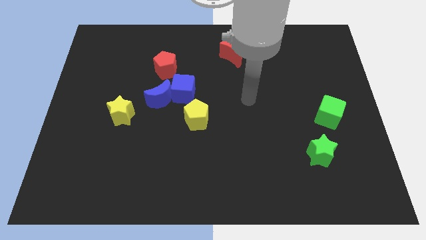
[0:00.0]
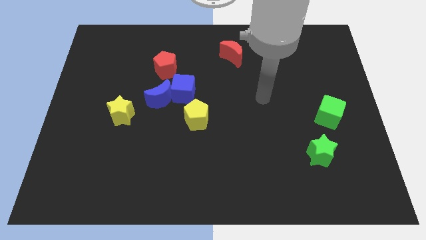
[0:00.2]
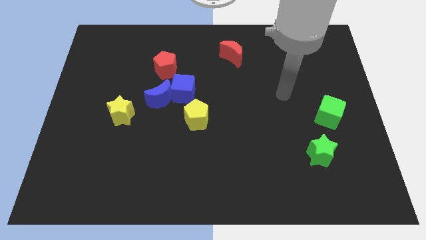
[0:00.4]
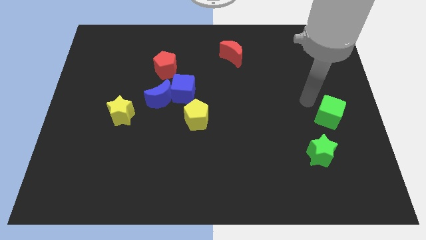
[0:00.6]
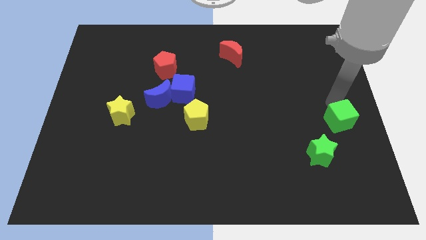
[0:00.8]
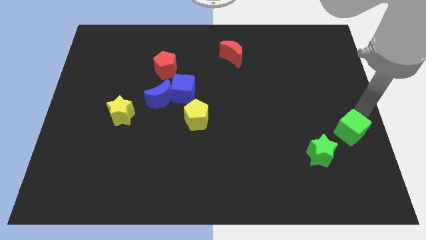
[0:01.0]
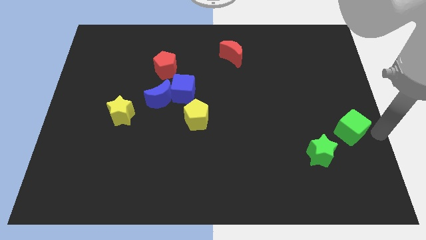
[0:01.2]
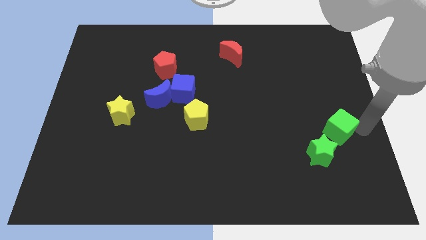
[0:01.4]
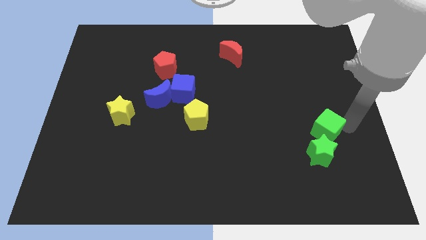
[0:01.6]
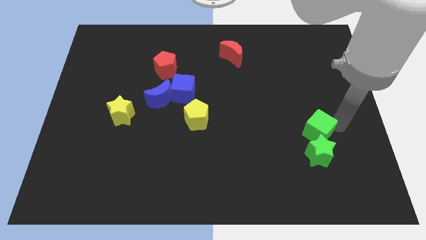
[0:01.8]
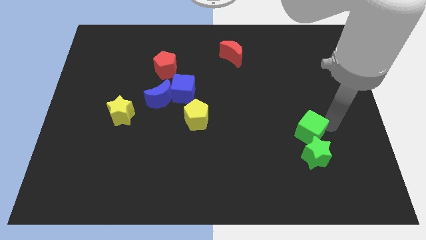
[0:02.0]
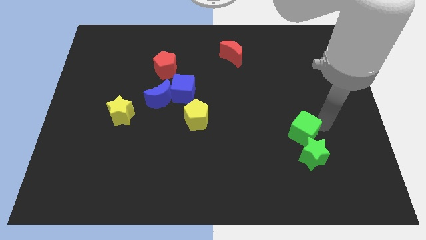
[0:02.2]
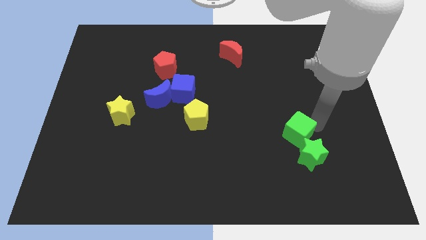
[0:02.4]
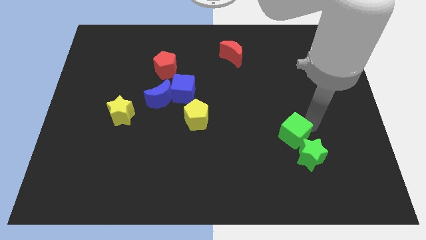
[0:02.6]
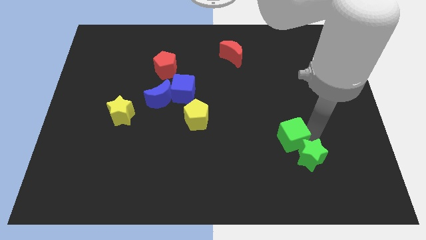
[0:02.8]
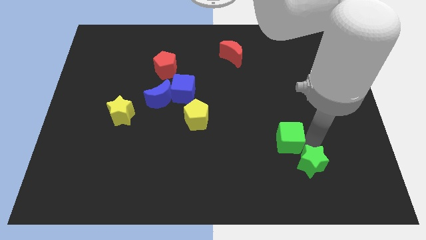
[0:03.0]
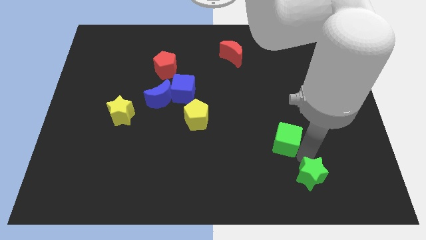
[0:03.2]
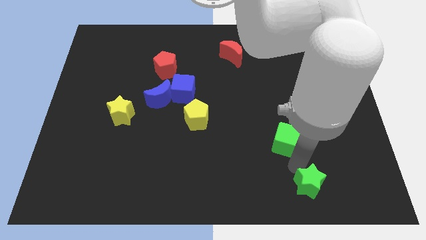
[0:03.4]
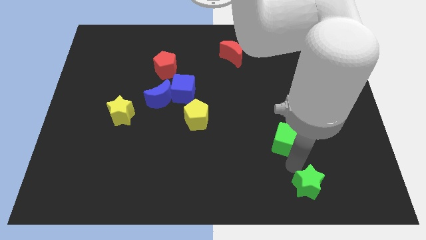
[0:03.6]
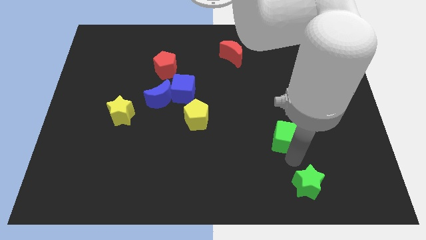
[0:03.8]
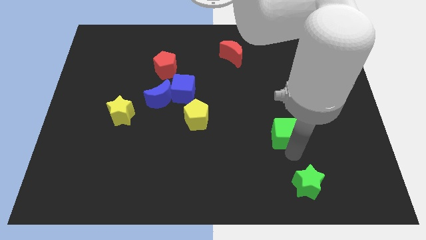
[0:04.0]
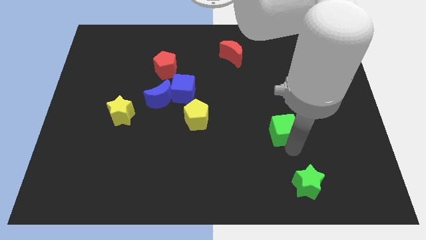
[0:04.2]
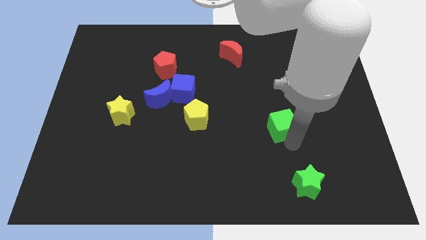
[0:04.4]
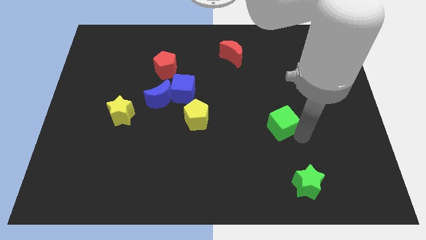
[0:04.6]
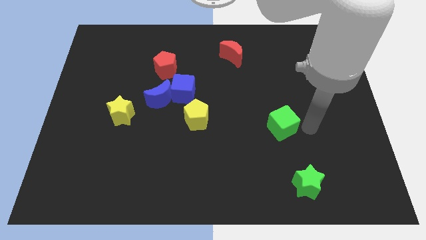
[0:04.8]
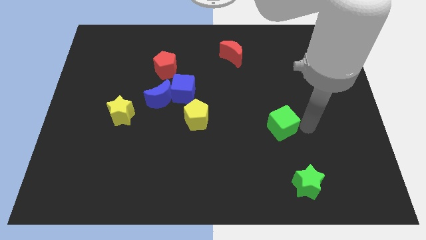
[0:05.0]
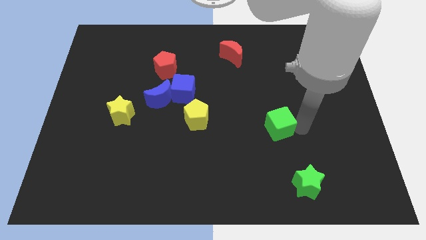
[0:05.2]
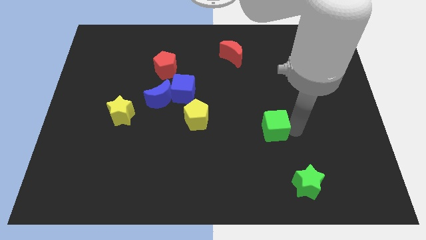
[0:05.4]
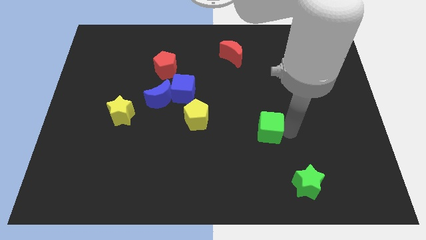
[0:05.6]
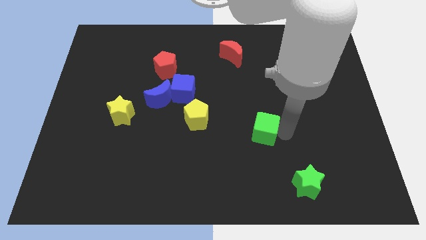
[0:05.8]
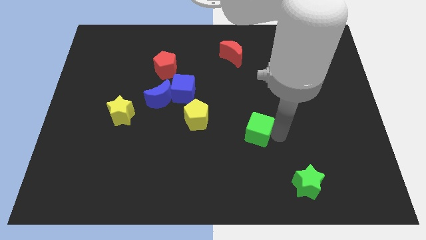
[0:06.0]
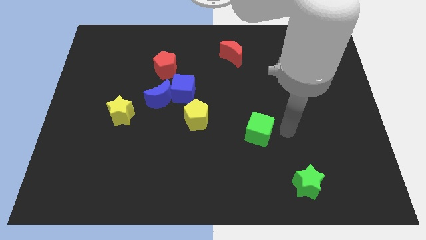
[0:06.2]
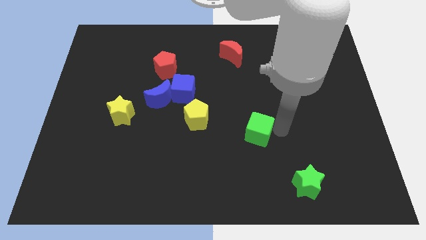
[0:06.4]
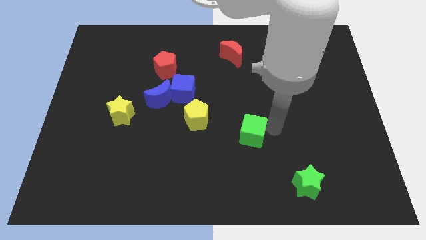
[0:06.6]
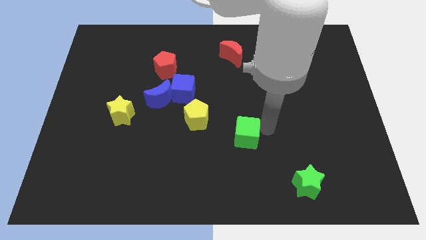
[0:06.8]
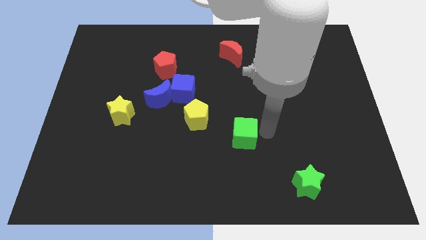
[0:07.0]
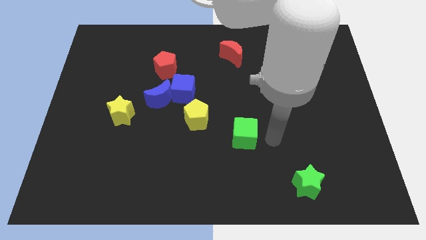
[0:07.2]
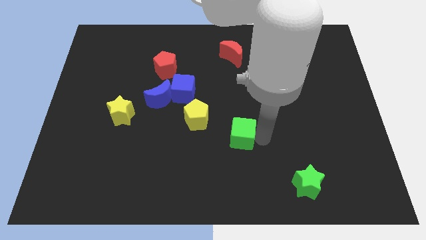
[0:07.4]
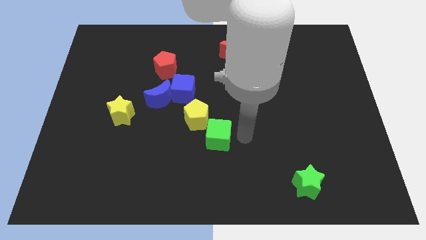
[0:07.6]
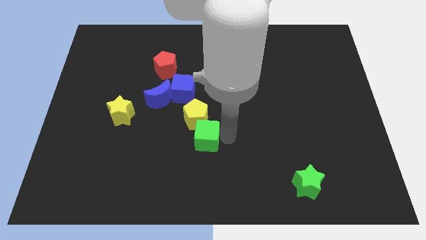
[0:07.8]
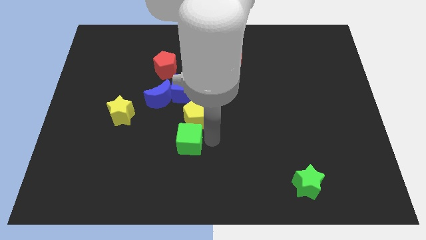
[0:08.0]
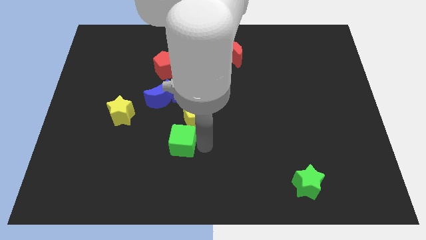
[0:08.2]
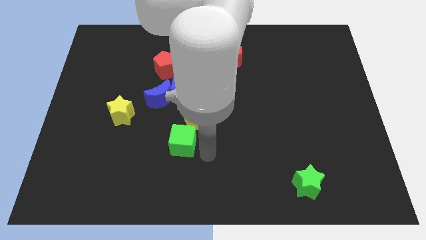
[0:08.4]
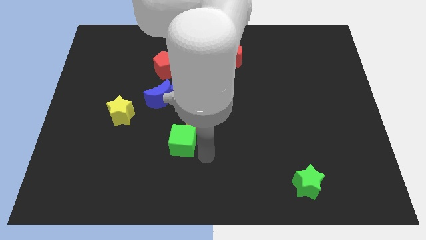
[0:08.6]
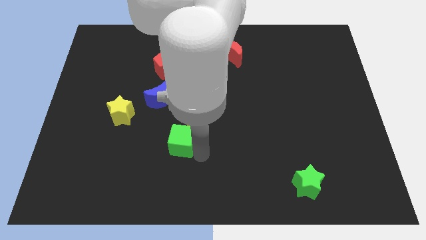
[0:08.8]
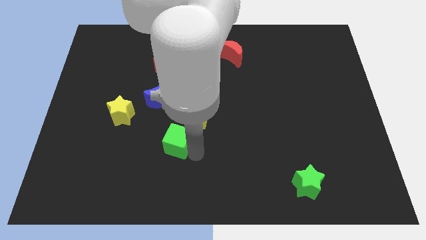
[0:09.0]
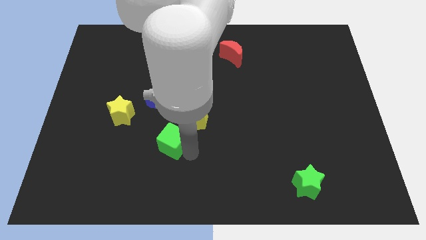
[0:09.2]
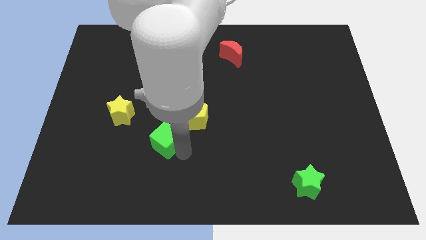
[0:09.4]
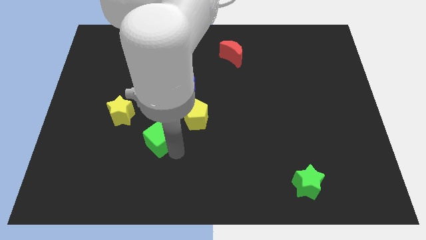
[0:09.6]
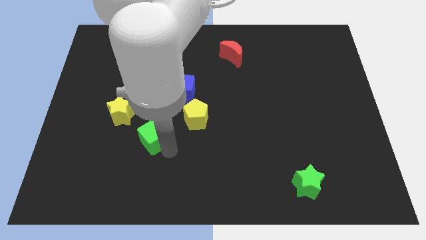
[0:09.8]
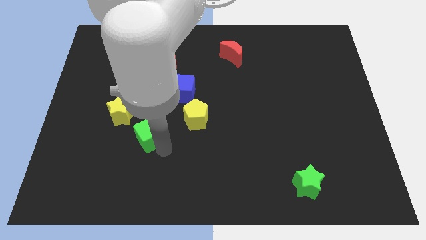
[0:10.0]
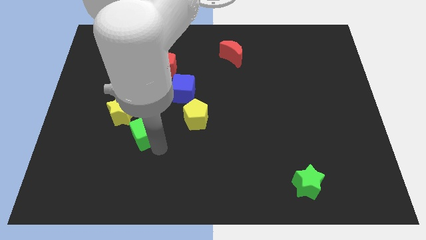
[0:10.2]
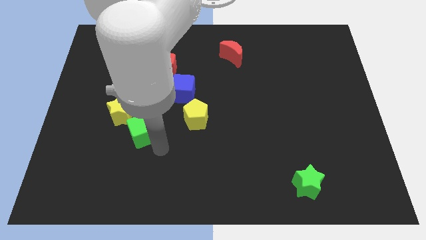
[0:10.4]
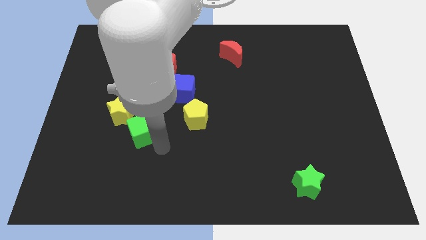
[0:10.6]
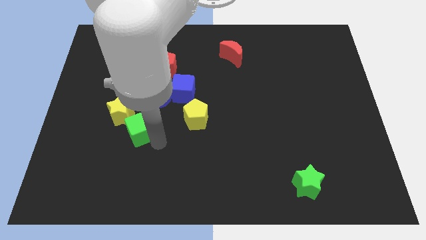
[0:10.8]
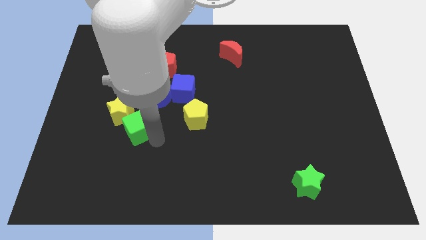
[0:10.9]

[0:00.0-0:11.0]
slide the green cube to the yellow star

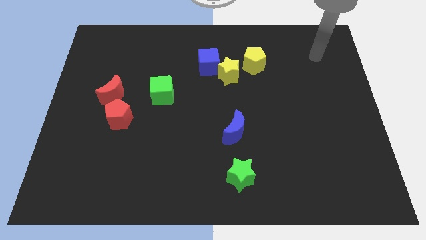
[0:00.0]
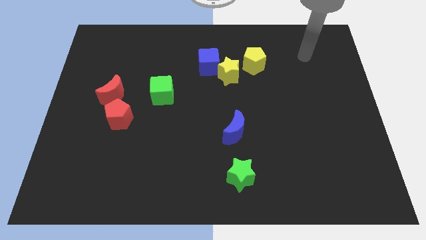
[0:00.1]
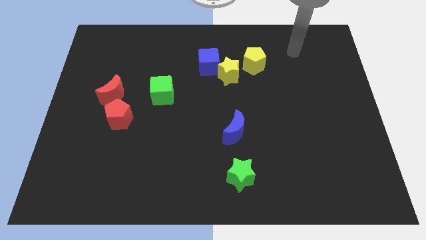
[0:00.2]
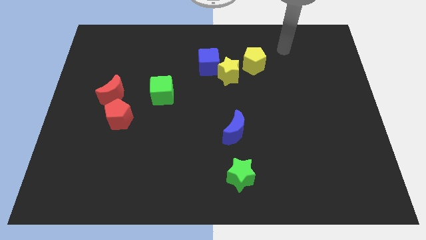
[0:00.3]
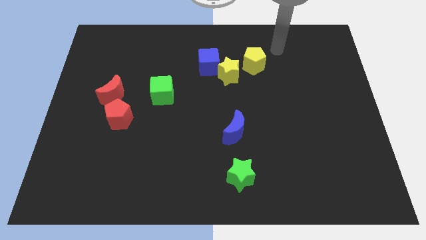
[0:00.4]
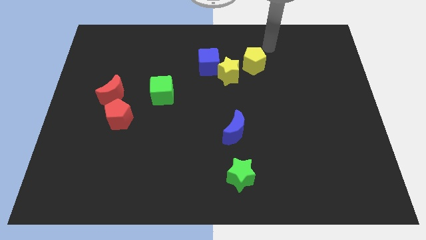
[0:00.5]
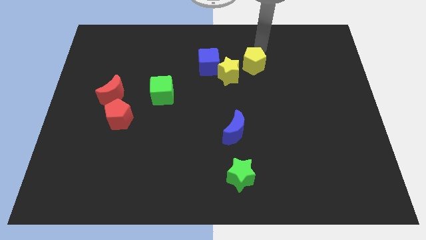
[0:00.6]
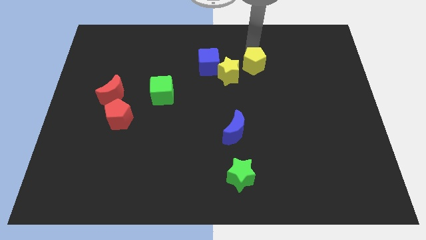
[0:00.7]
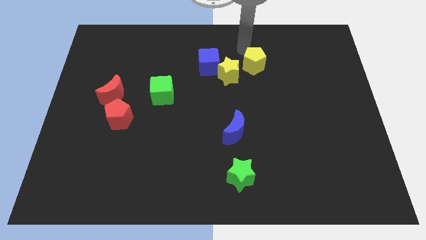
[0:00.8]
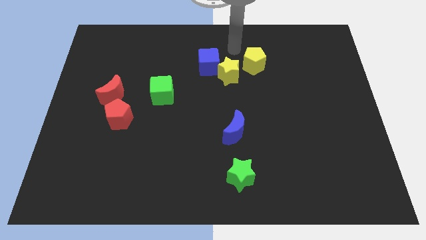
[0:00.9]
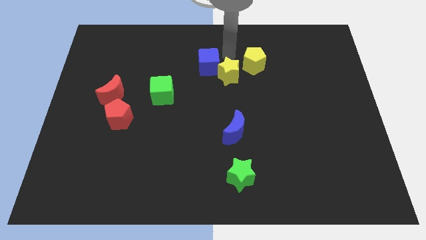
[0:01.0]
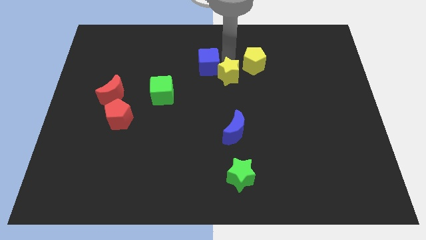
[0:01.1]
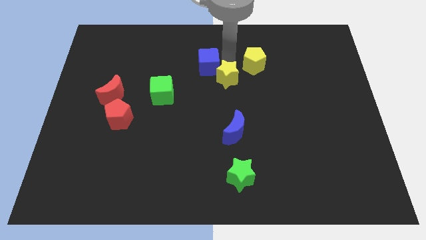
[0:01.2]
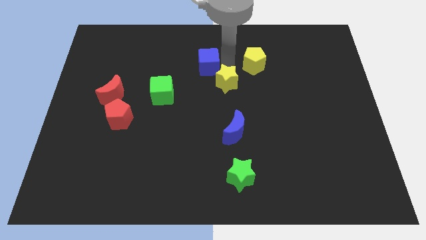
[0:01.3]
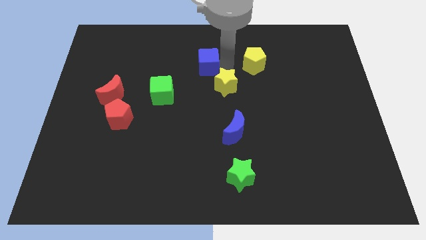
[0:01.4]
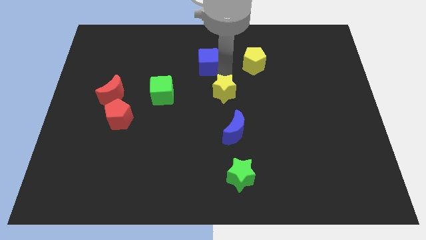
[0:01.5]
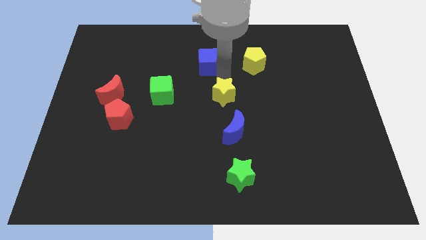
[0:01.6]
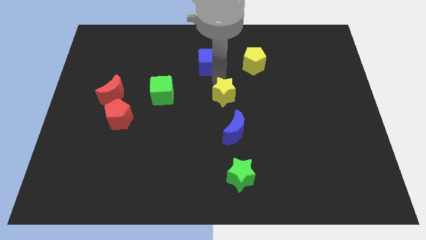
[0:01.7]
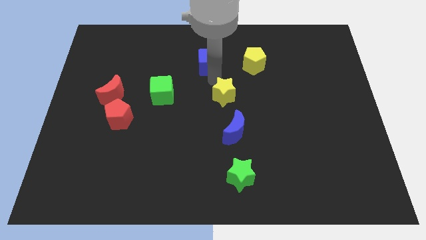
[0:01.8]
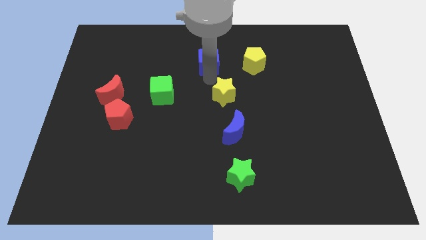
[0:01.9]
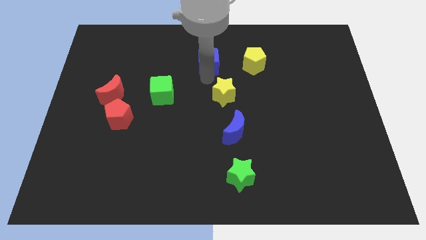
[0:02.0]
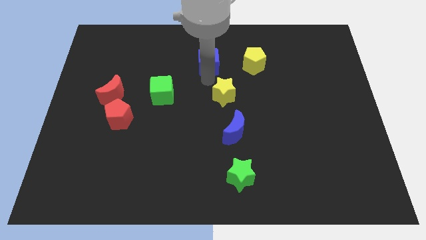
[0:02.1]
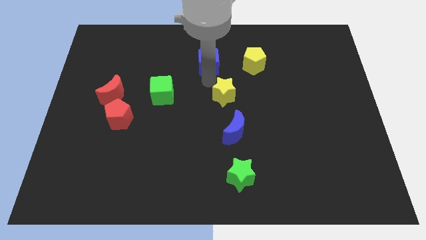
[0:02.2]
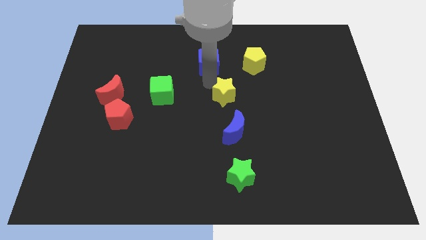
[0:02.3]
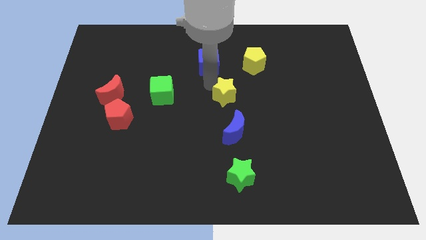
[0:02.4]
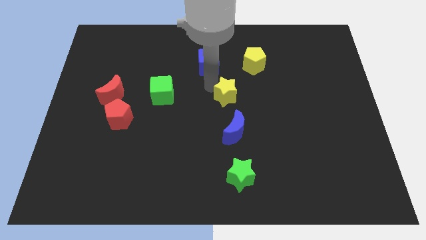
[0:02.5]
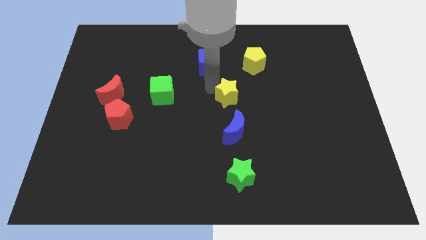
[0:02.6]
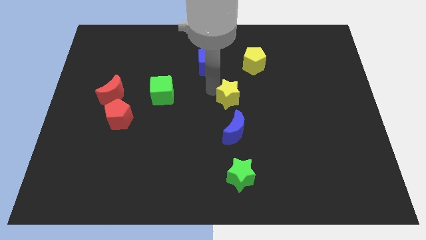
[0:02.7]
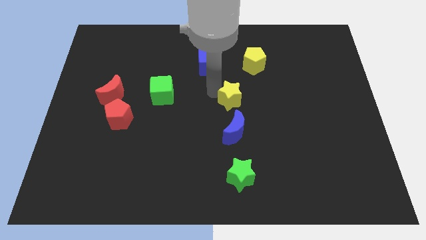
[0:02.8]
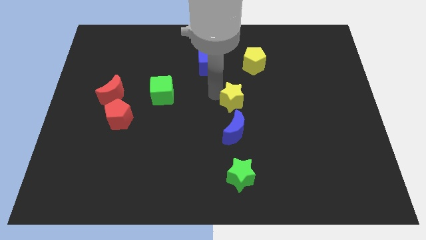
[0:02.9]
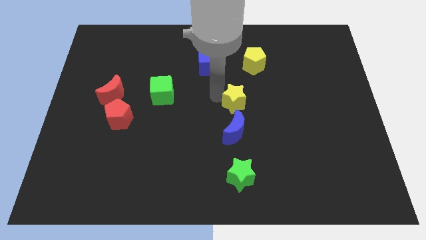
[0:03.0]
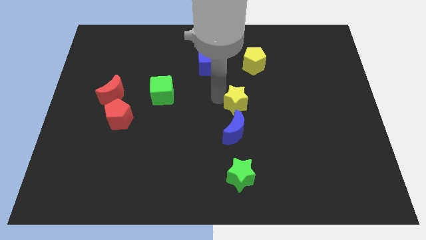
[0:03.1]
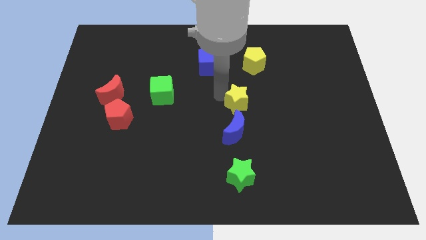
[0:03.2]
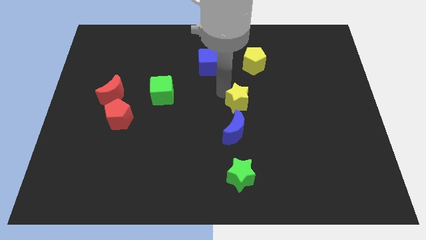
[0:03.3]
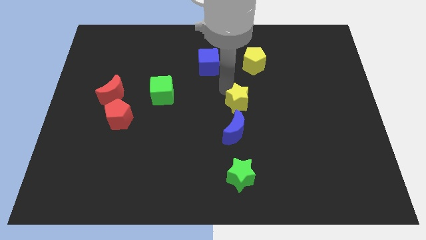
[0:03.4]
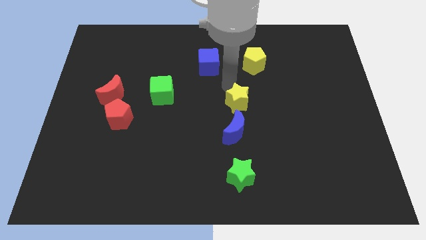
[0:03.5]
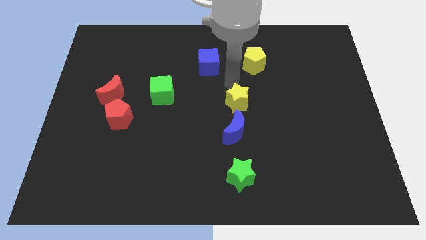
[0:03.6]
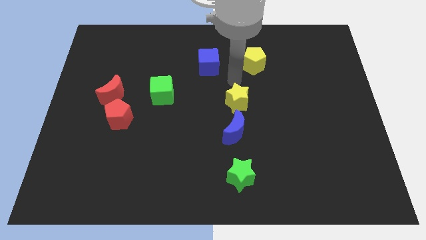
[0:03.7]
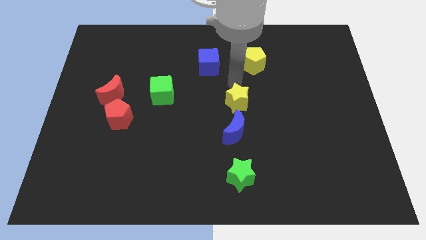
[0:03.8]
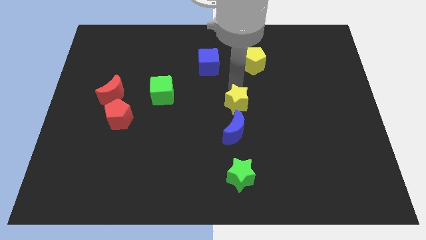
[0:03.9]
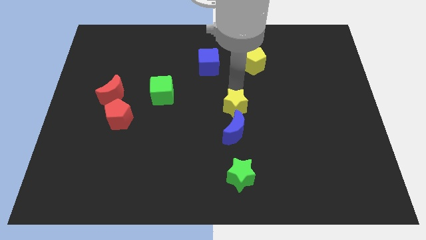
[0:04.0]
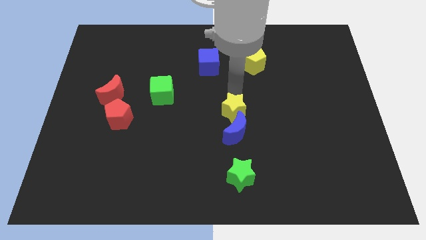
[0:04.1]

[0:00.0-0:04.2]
put the yellow star next to the blue moon
